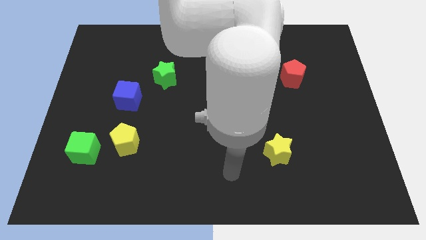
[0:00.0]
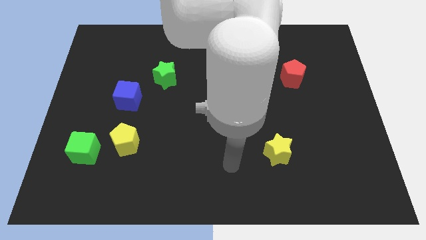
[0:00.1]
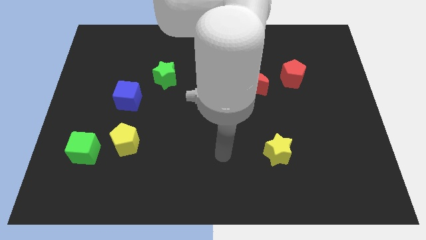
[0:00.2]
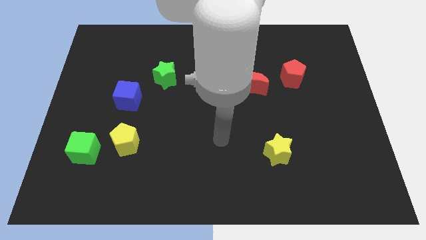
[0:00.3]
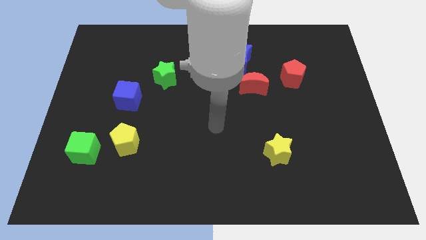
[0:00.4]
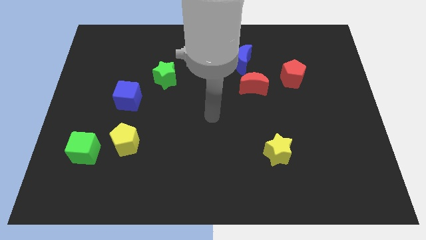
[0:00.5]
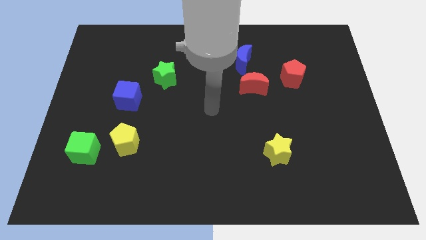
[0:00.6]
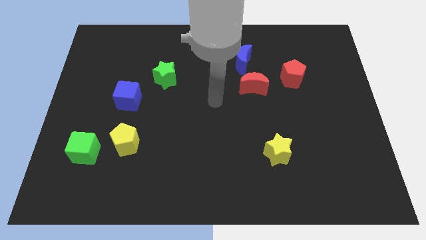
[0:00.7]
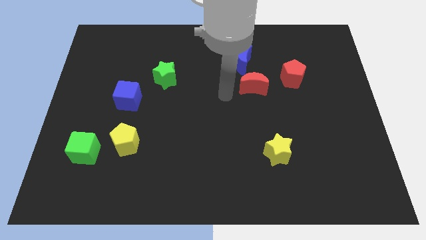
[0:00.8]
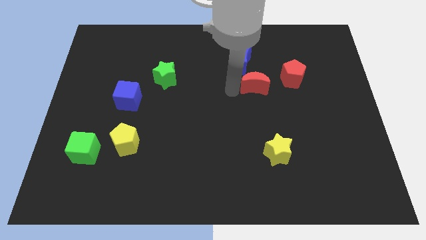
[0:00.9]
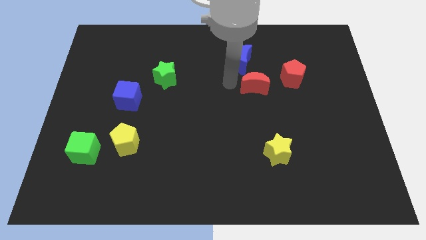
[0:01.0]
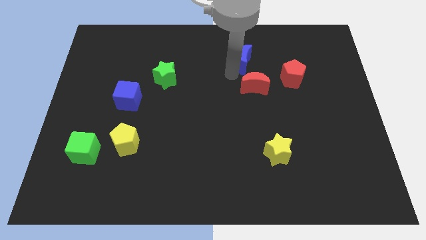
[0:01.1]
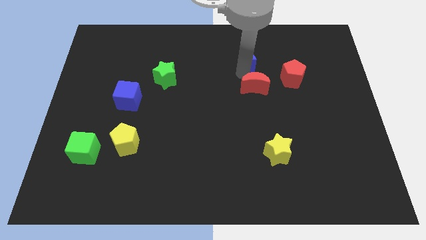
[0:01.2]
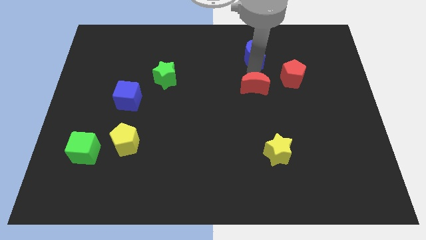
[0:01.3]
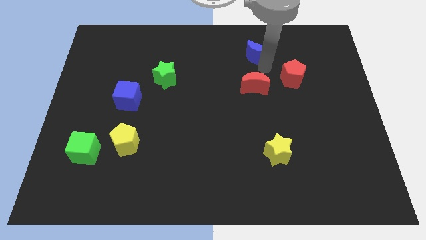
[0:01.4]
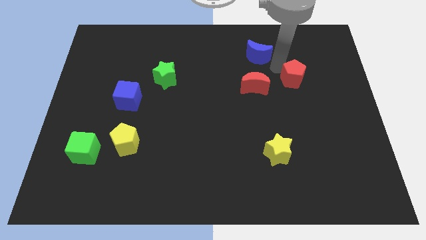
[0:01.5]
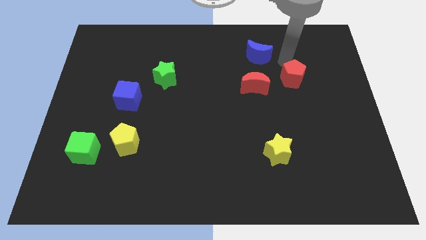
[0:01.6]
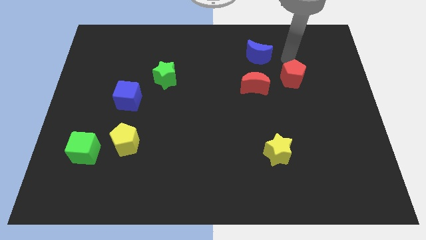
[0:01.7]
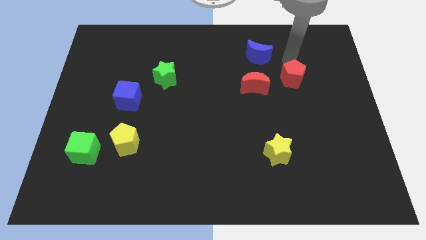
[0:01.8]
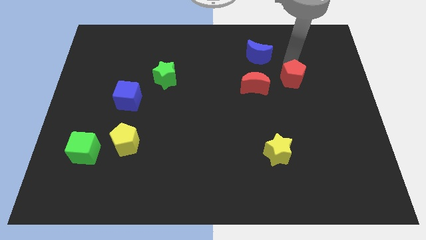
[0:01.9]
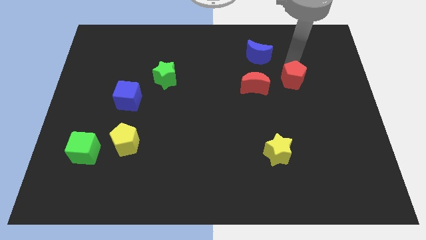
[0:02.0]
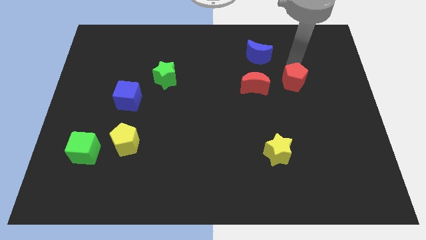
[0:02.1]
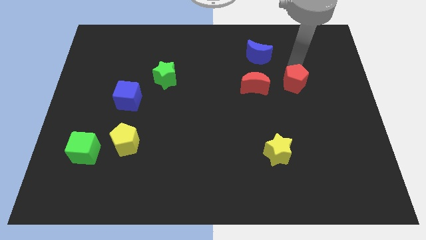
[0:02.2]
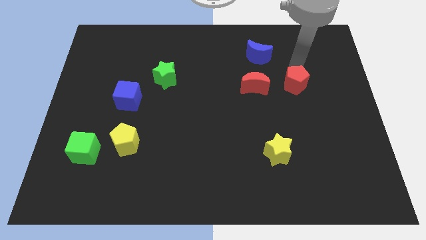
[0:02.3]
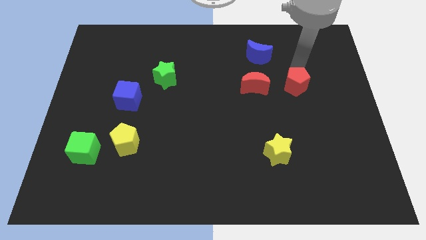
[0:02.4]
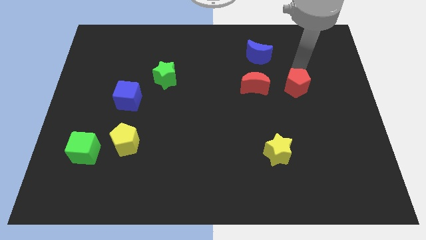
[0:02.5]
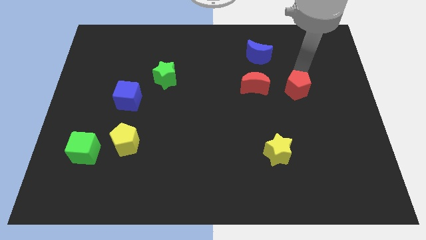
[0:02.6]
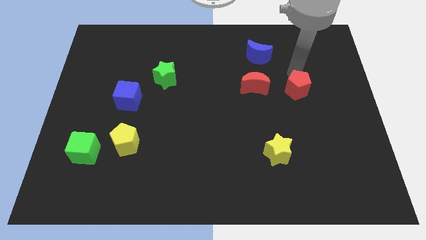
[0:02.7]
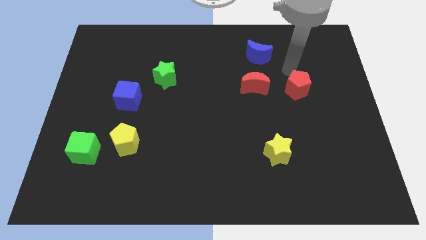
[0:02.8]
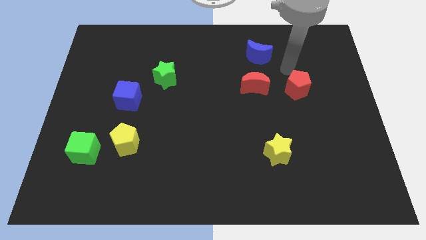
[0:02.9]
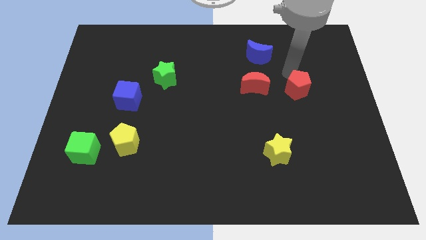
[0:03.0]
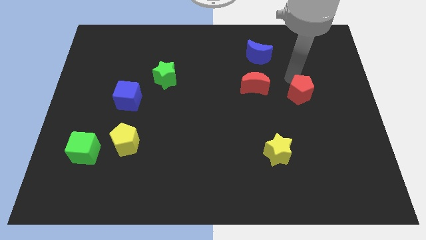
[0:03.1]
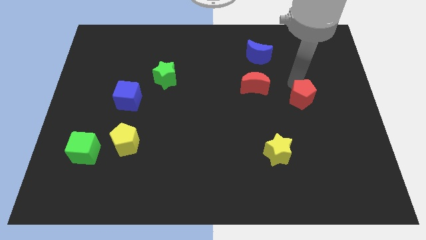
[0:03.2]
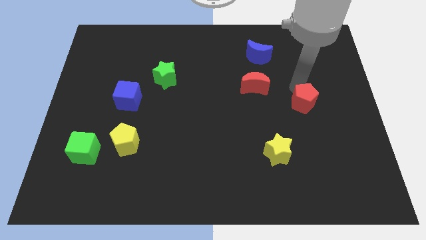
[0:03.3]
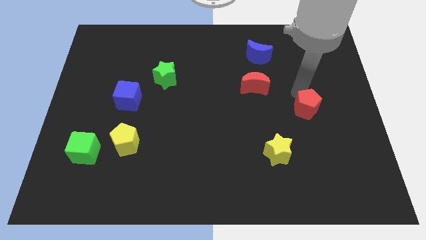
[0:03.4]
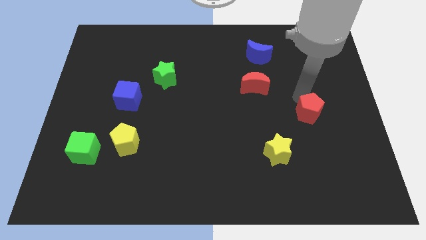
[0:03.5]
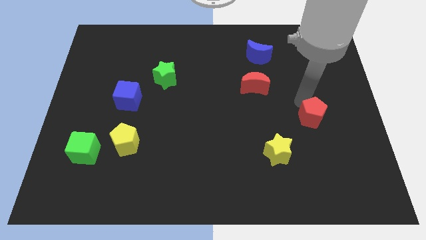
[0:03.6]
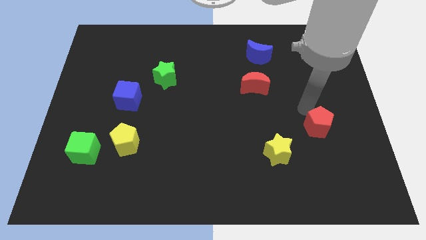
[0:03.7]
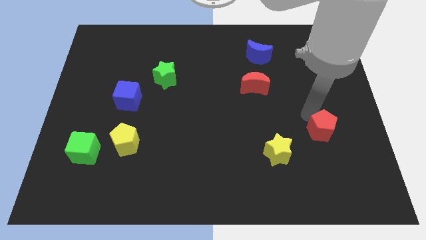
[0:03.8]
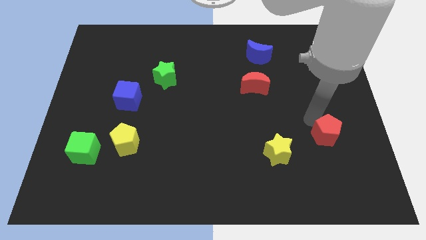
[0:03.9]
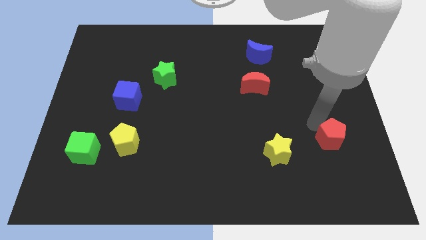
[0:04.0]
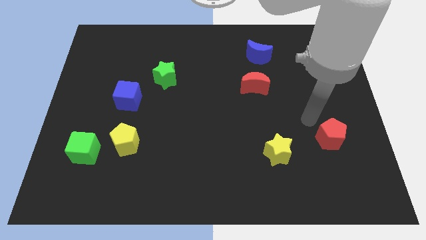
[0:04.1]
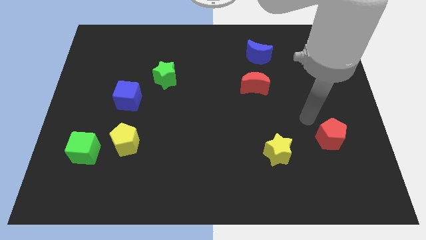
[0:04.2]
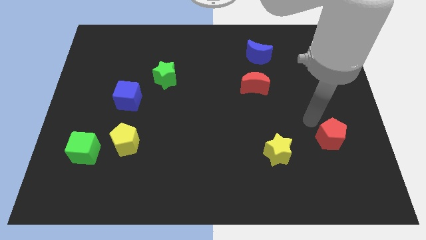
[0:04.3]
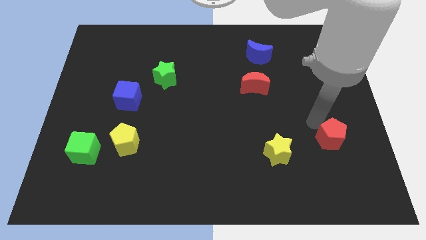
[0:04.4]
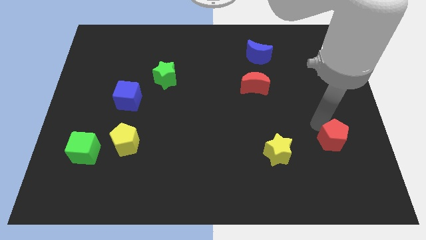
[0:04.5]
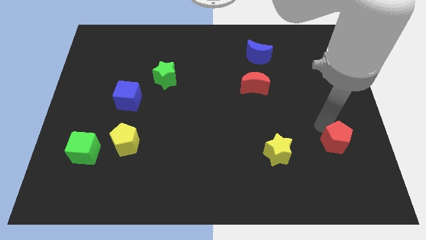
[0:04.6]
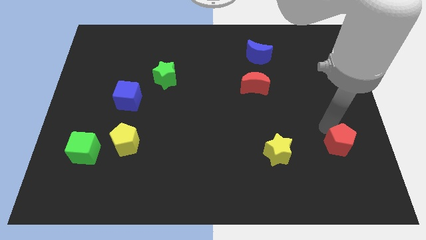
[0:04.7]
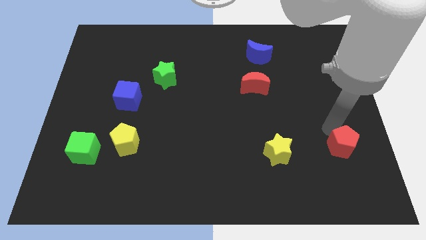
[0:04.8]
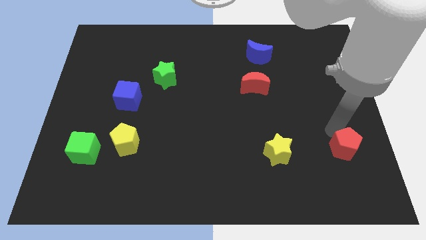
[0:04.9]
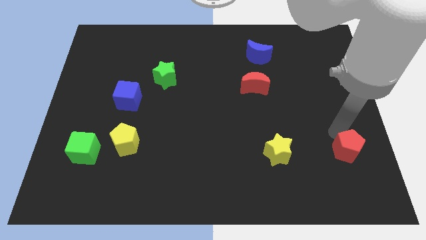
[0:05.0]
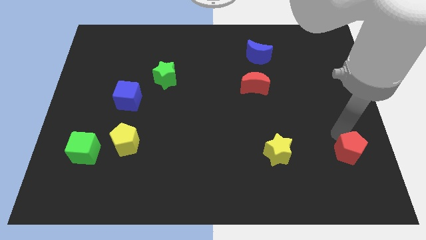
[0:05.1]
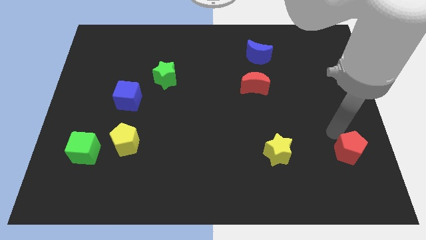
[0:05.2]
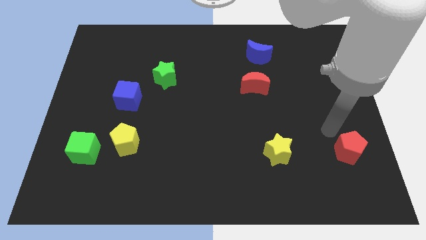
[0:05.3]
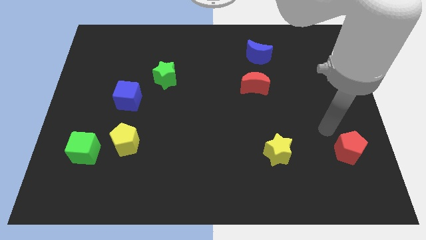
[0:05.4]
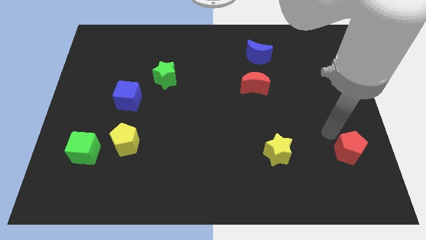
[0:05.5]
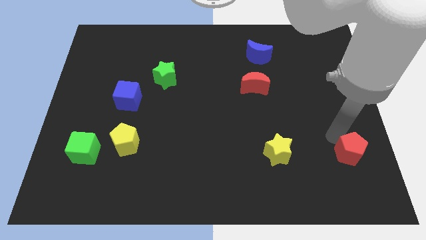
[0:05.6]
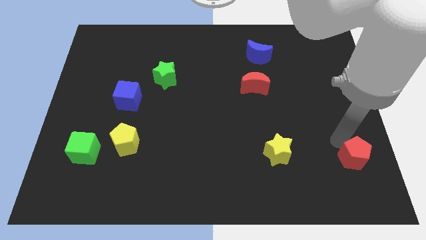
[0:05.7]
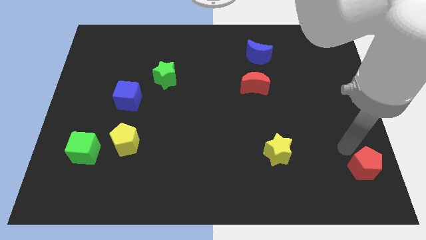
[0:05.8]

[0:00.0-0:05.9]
slide the red pentagon to the bottom right
